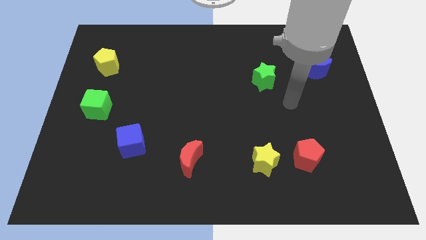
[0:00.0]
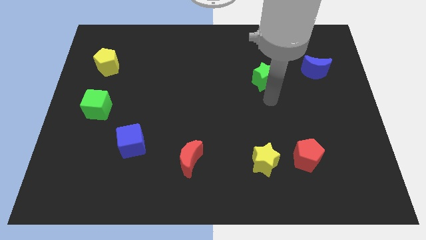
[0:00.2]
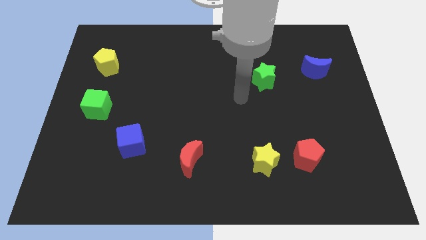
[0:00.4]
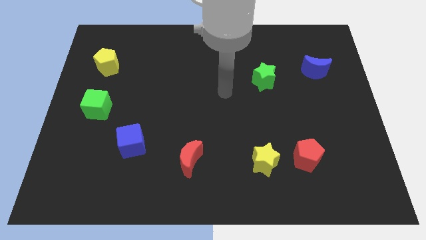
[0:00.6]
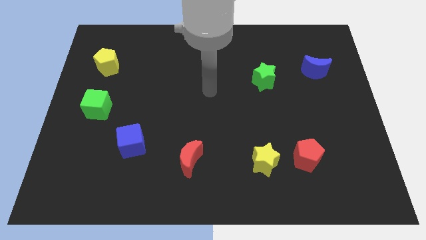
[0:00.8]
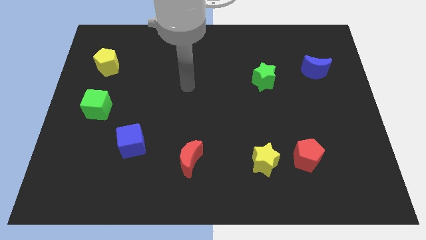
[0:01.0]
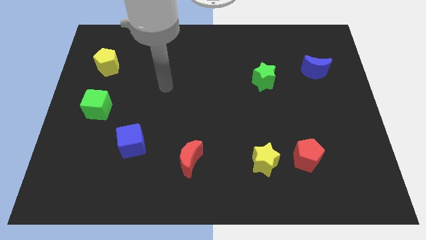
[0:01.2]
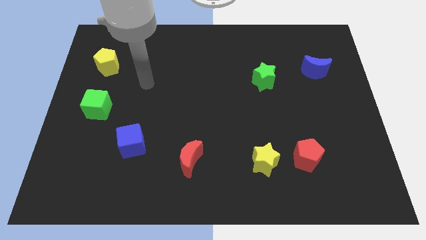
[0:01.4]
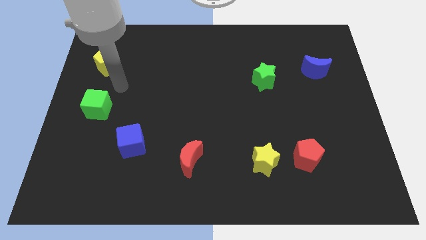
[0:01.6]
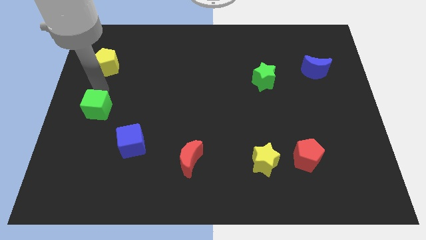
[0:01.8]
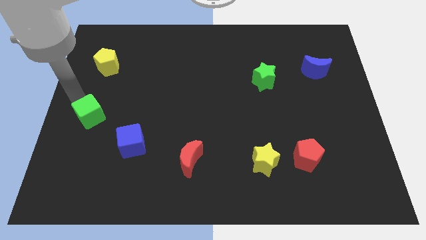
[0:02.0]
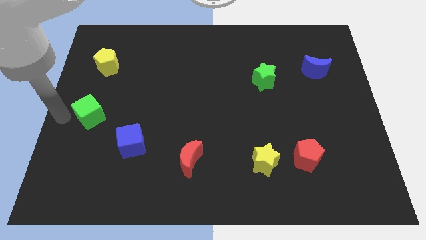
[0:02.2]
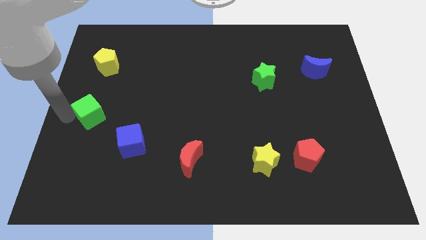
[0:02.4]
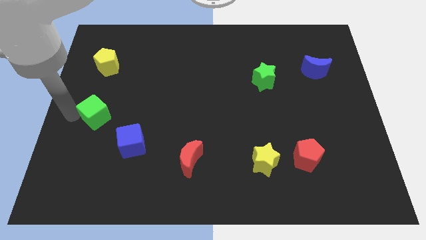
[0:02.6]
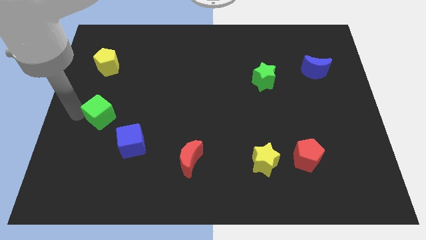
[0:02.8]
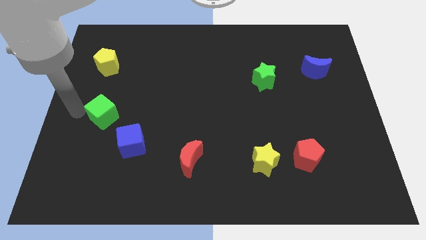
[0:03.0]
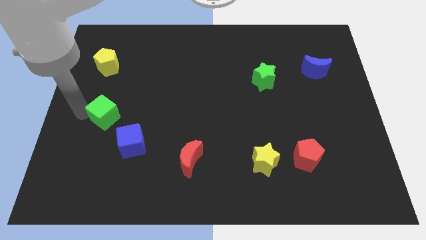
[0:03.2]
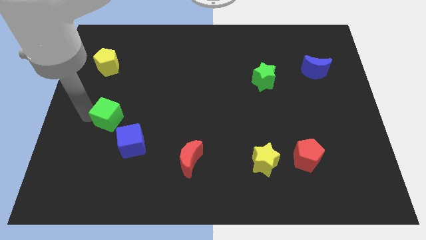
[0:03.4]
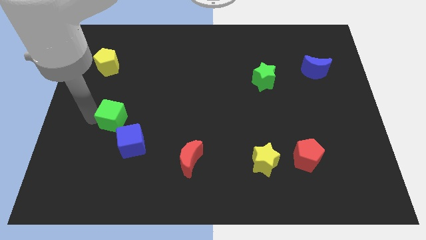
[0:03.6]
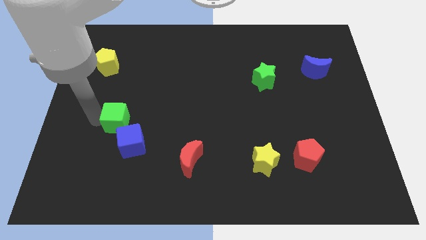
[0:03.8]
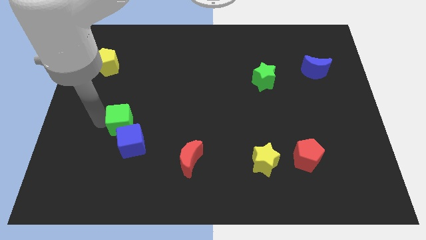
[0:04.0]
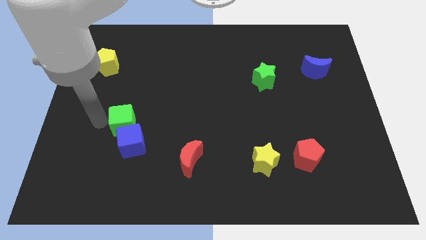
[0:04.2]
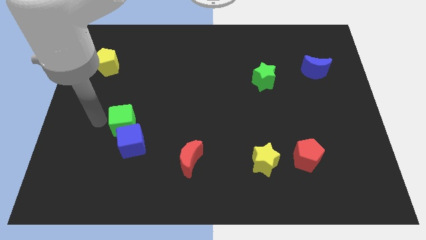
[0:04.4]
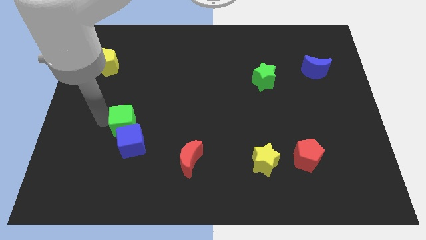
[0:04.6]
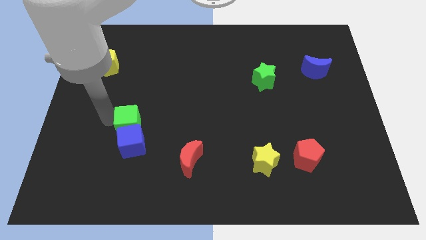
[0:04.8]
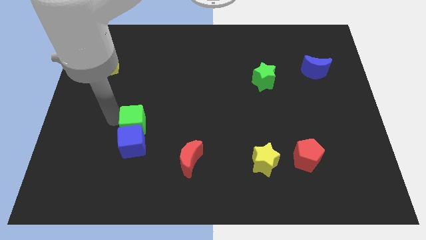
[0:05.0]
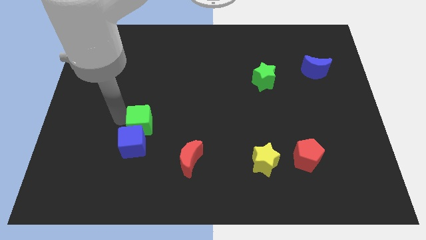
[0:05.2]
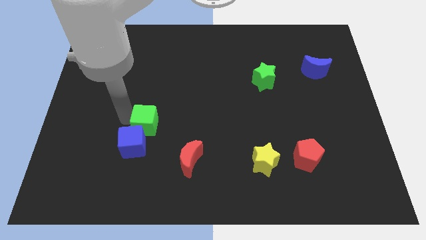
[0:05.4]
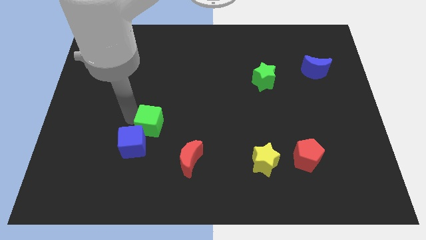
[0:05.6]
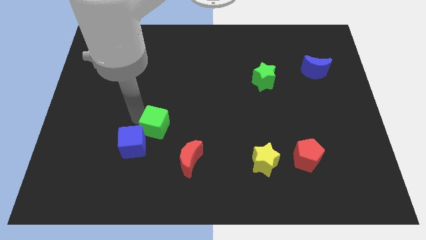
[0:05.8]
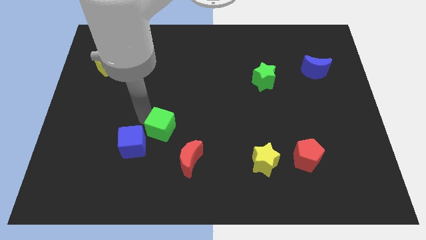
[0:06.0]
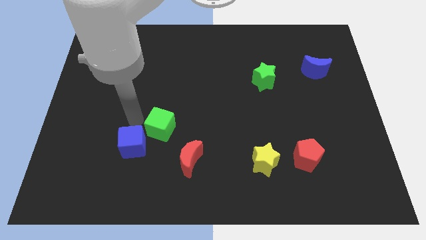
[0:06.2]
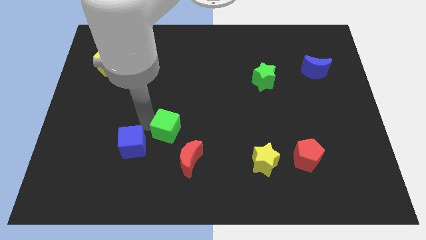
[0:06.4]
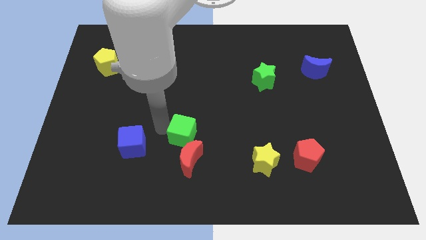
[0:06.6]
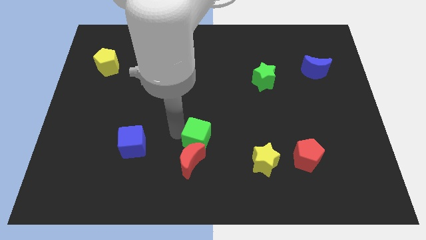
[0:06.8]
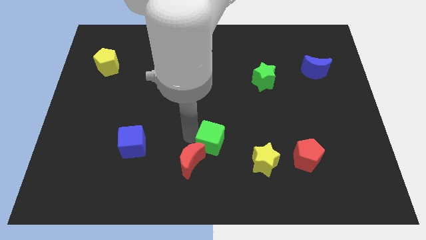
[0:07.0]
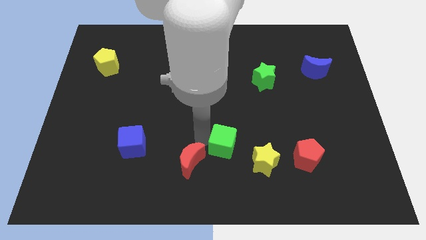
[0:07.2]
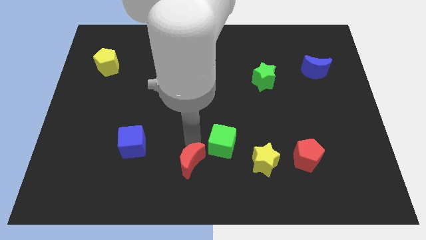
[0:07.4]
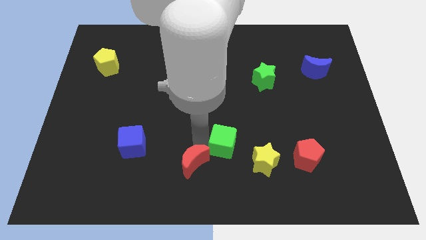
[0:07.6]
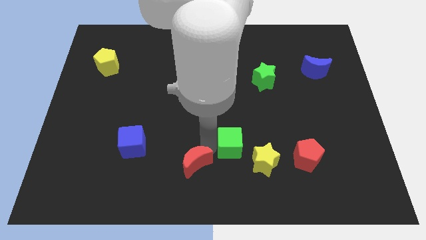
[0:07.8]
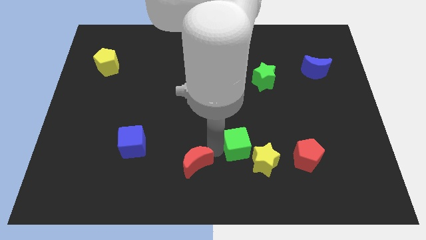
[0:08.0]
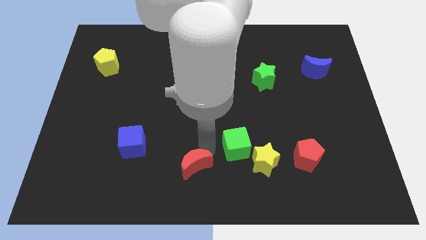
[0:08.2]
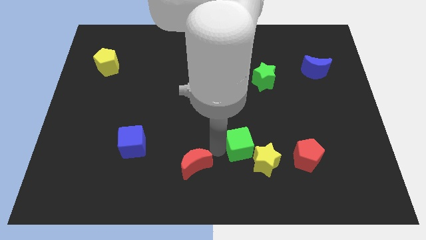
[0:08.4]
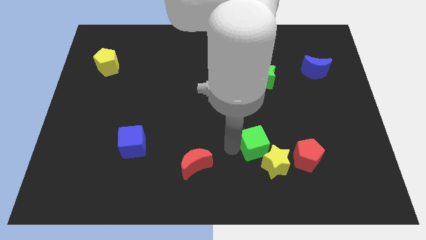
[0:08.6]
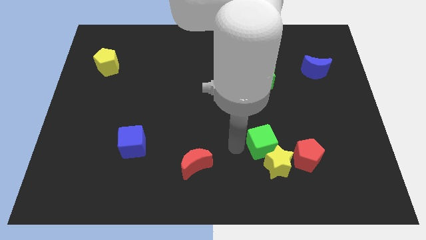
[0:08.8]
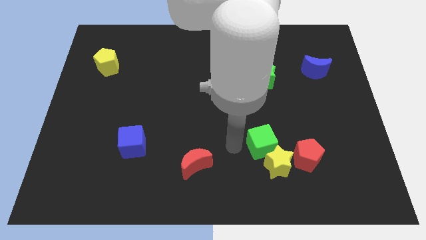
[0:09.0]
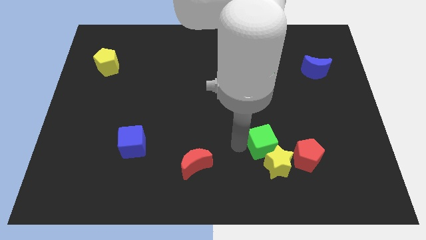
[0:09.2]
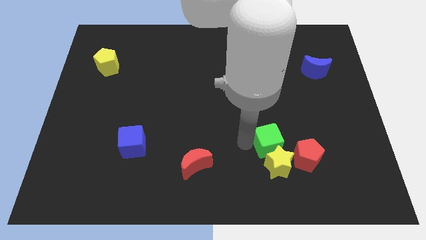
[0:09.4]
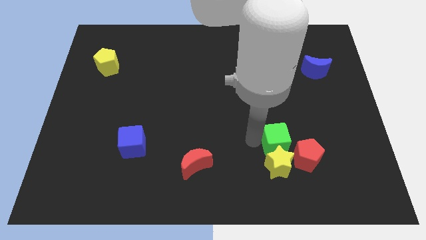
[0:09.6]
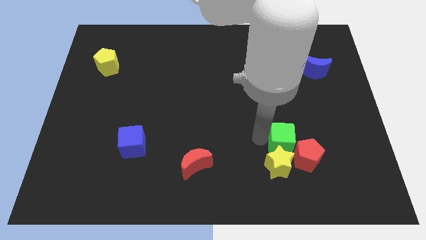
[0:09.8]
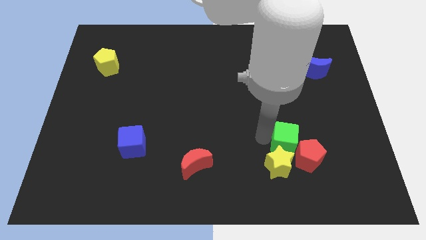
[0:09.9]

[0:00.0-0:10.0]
put the green cube close to the red pentagon

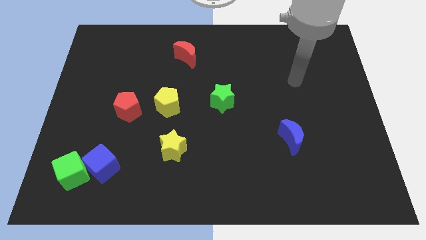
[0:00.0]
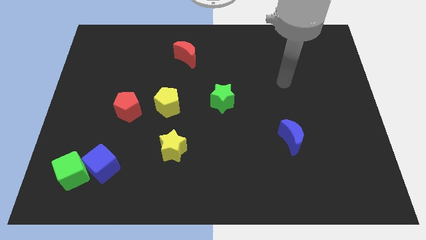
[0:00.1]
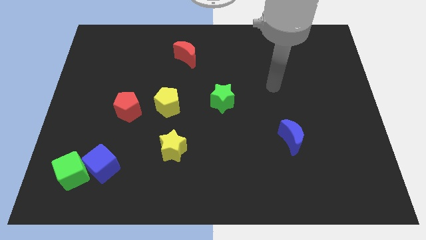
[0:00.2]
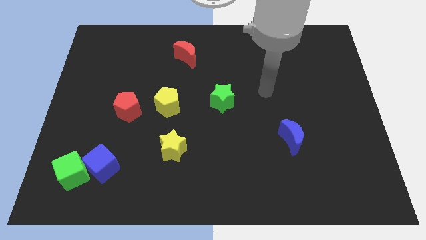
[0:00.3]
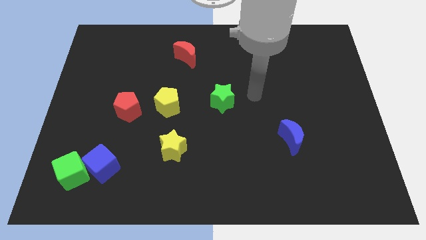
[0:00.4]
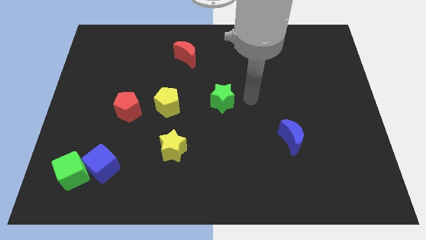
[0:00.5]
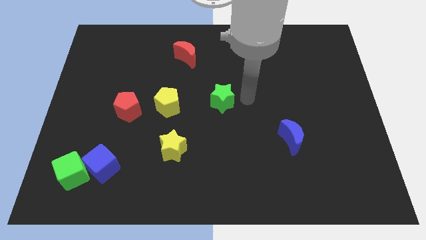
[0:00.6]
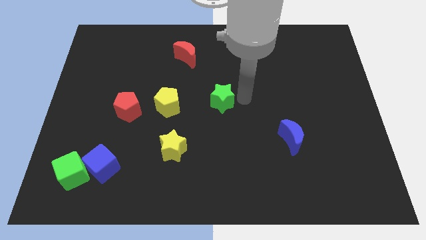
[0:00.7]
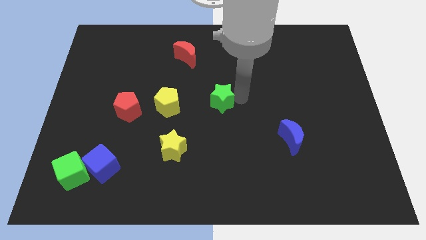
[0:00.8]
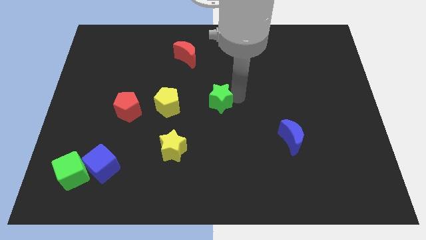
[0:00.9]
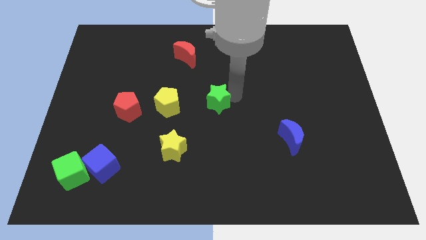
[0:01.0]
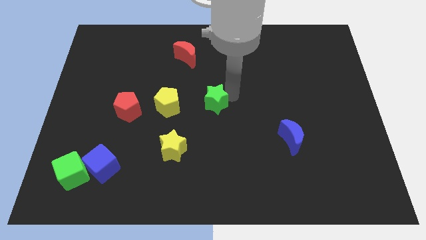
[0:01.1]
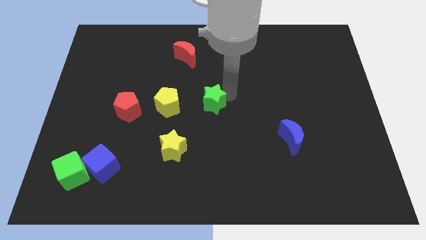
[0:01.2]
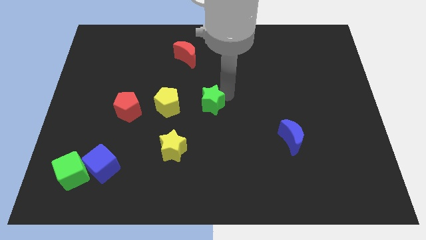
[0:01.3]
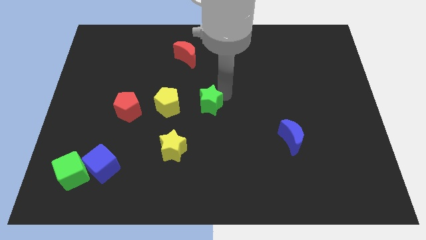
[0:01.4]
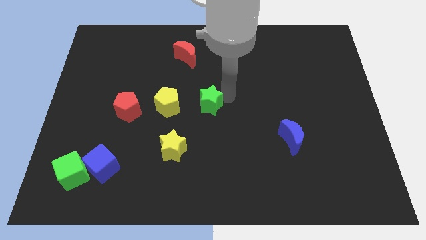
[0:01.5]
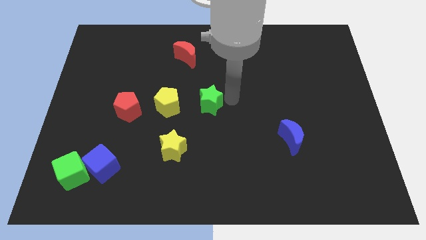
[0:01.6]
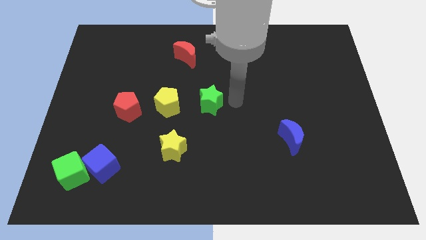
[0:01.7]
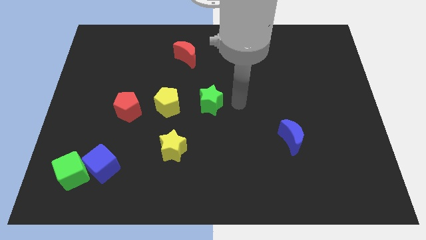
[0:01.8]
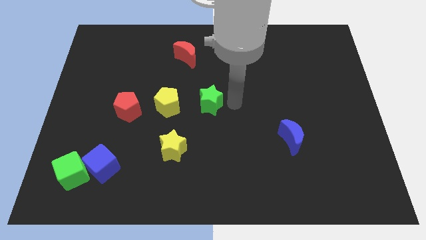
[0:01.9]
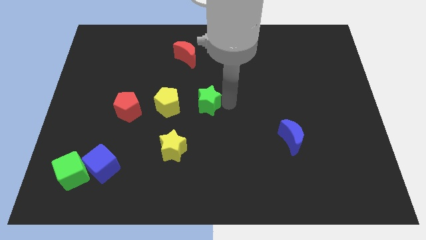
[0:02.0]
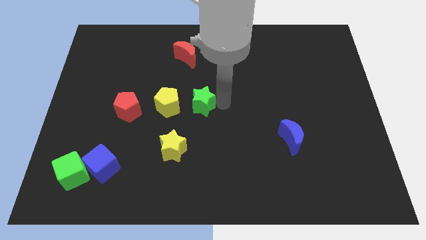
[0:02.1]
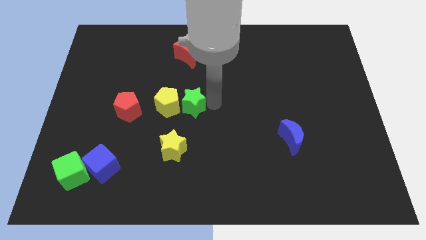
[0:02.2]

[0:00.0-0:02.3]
move the green star next to the yellow pentagon

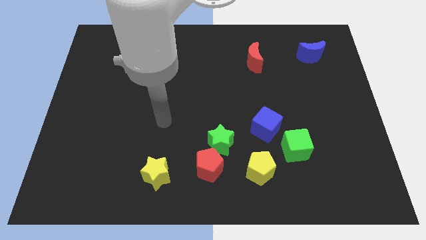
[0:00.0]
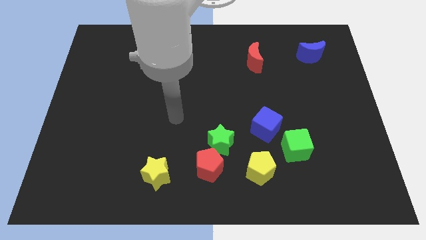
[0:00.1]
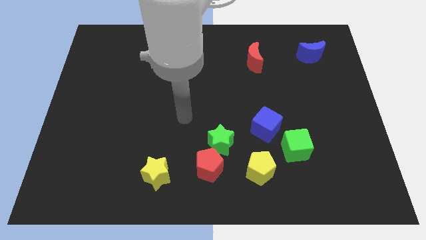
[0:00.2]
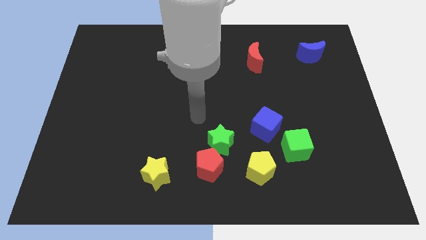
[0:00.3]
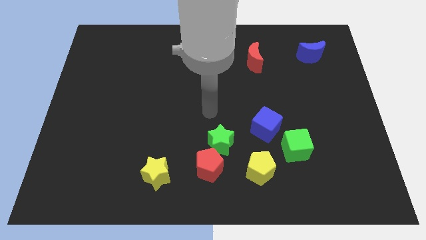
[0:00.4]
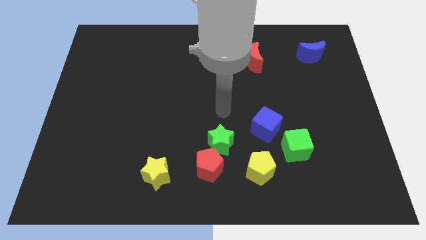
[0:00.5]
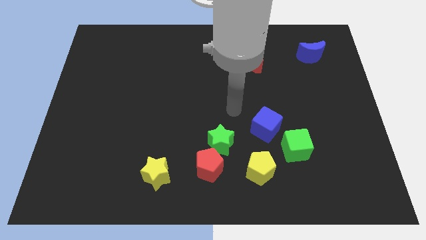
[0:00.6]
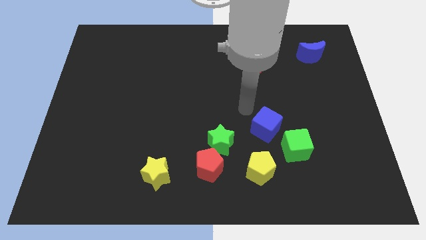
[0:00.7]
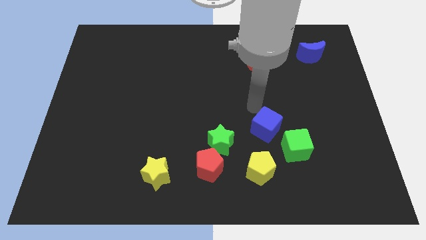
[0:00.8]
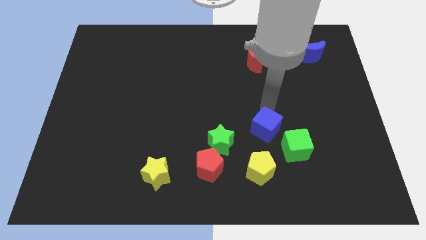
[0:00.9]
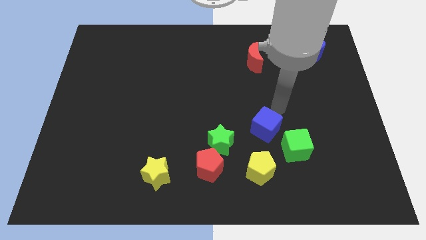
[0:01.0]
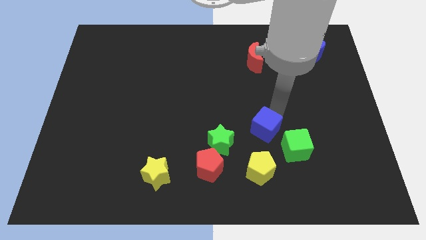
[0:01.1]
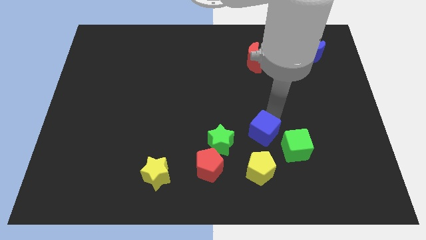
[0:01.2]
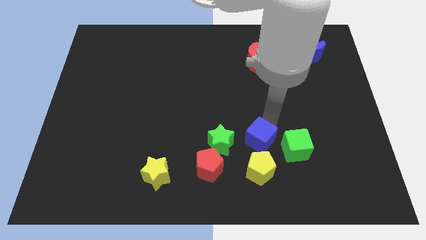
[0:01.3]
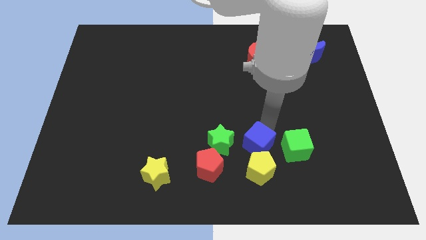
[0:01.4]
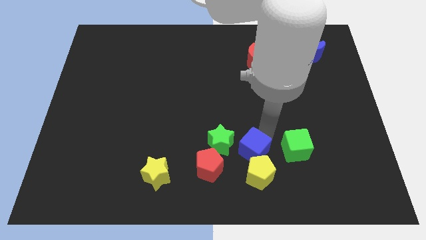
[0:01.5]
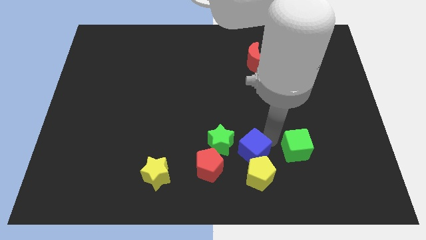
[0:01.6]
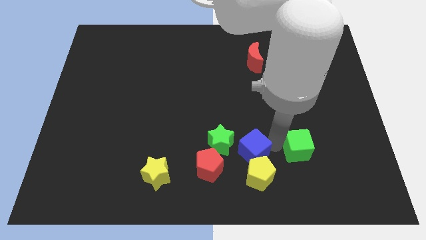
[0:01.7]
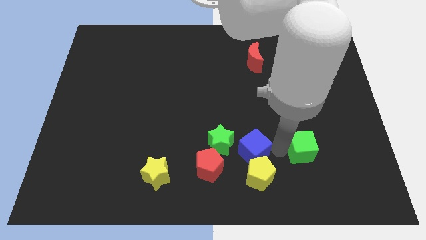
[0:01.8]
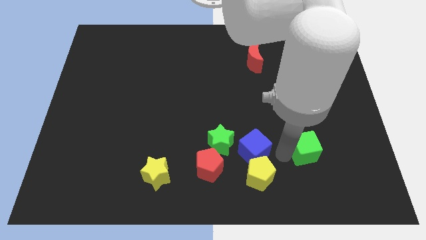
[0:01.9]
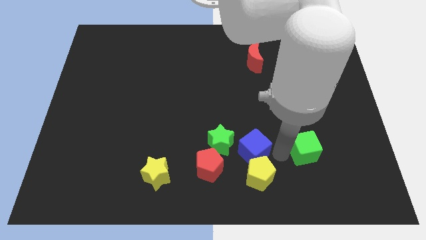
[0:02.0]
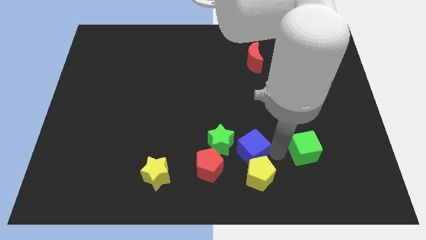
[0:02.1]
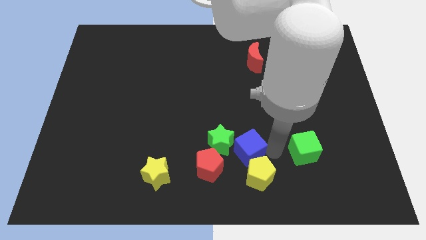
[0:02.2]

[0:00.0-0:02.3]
slide the blue cube towards the green star
